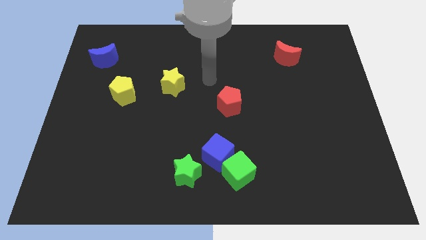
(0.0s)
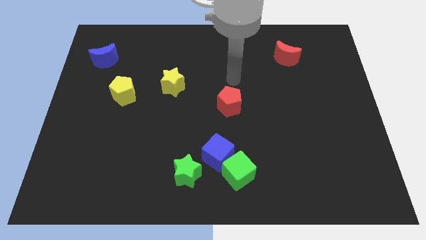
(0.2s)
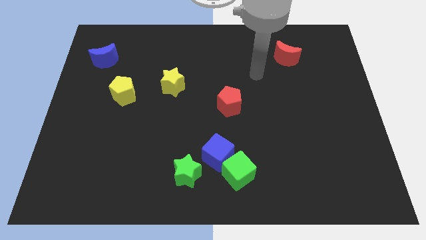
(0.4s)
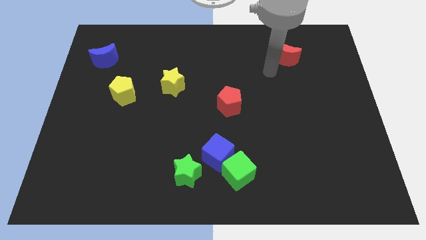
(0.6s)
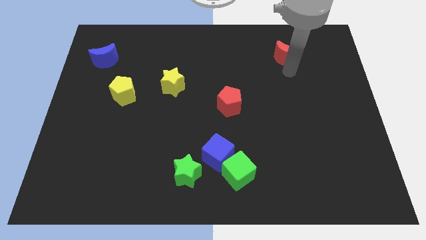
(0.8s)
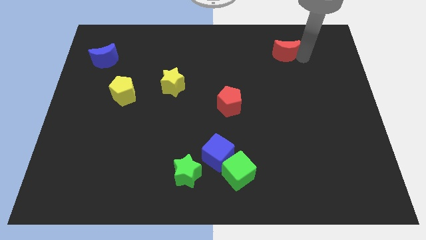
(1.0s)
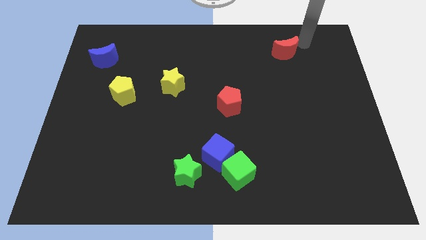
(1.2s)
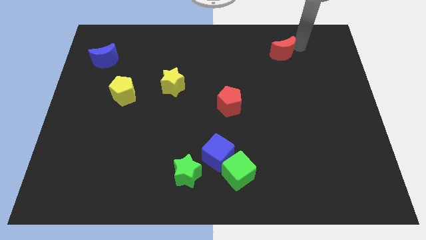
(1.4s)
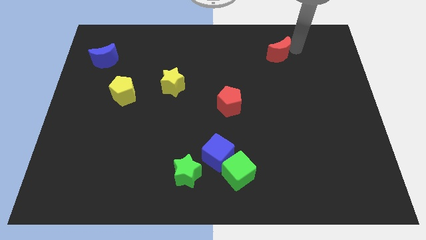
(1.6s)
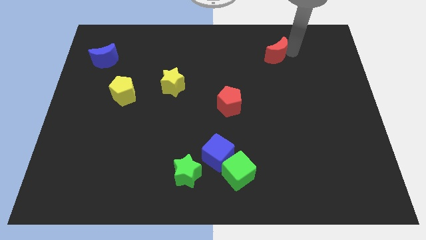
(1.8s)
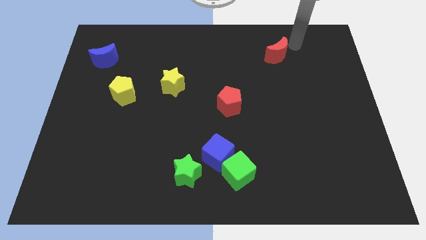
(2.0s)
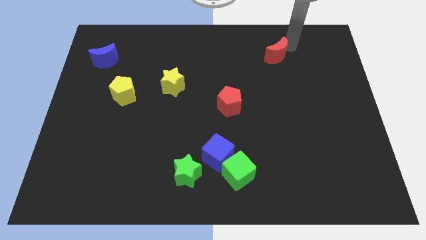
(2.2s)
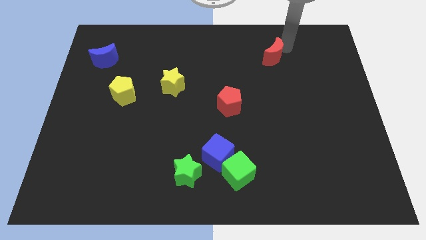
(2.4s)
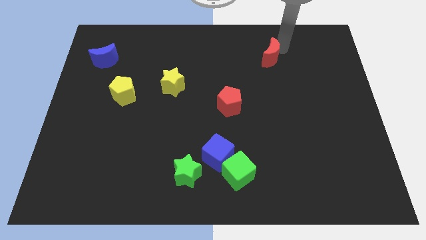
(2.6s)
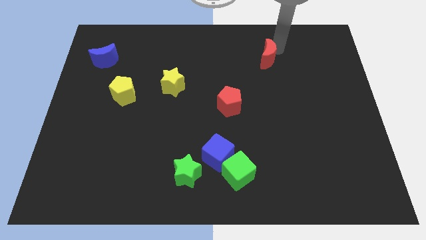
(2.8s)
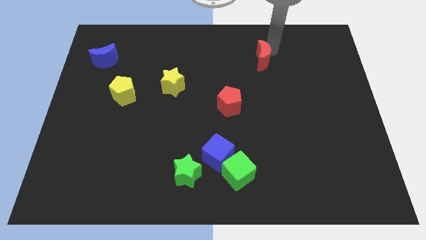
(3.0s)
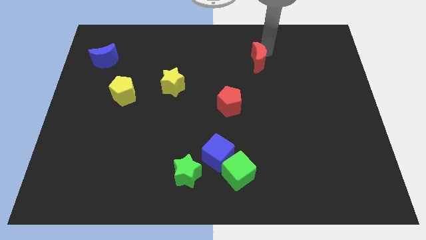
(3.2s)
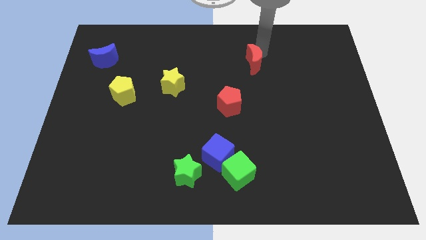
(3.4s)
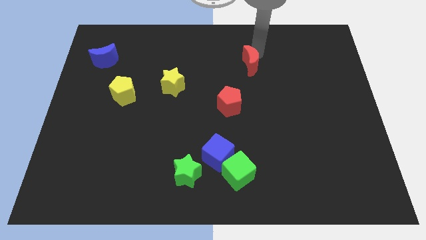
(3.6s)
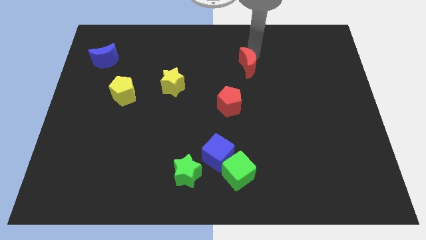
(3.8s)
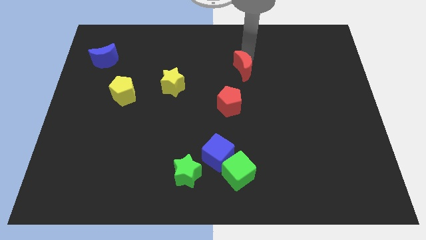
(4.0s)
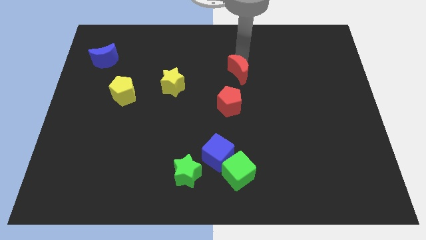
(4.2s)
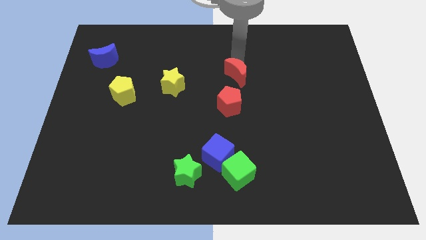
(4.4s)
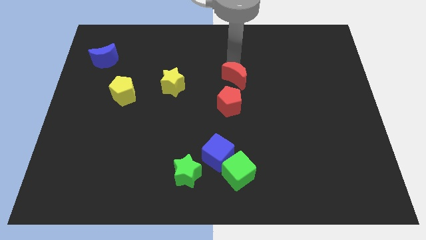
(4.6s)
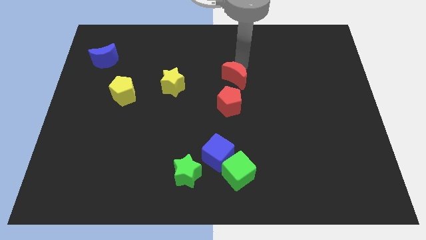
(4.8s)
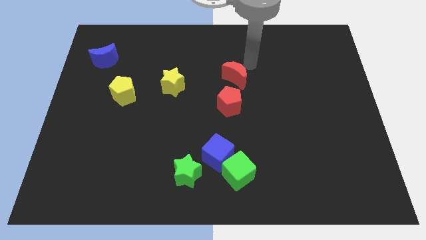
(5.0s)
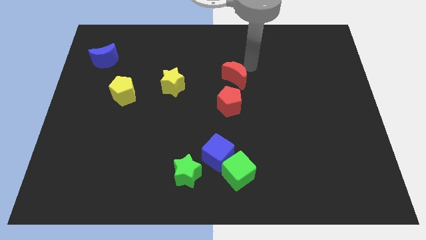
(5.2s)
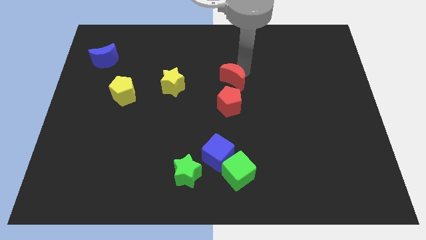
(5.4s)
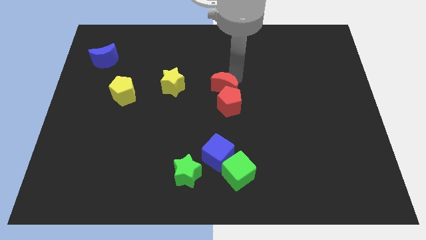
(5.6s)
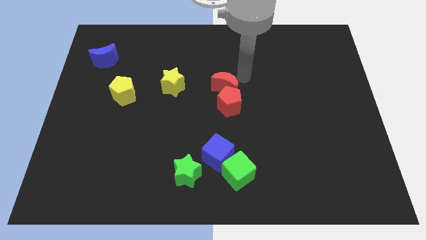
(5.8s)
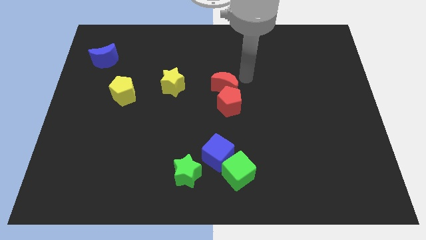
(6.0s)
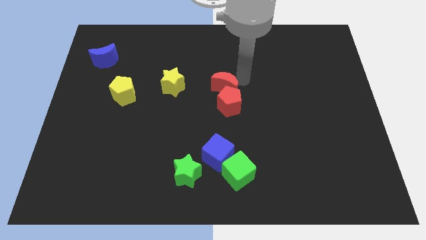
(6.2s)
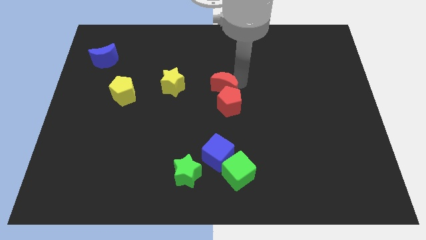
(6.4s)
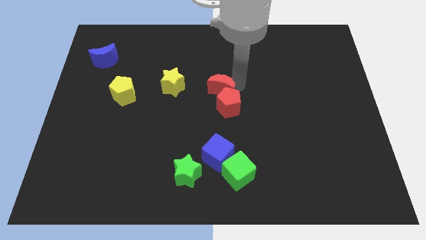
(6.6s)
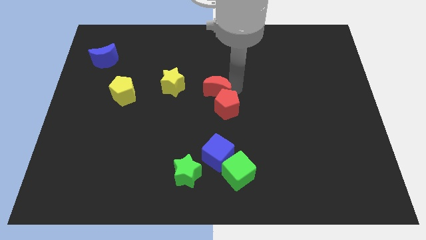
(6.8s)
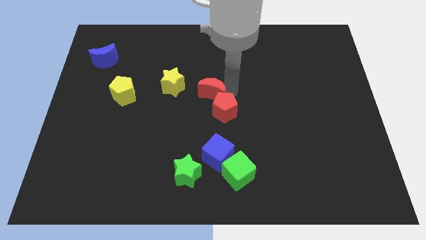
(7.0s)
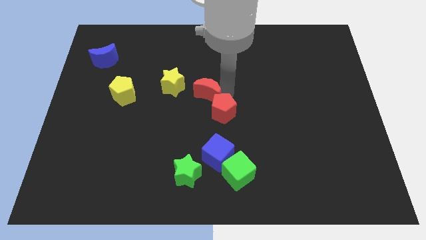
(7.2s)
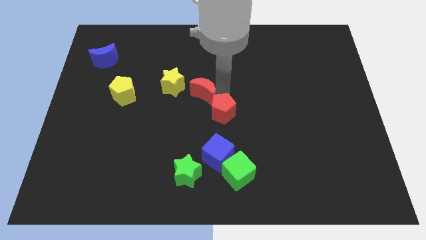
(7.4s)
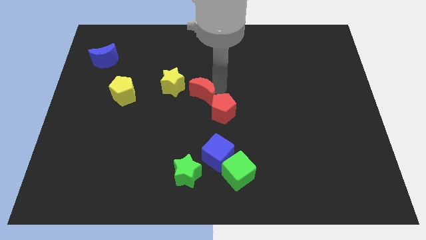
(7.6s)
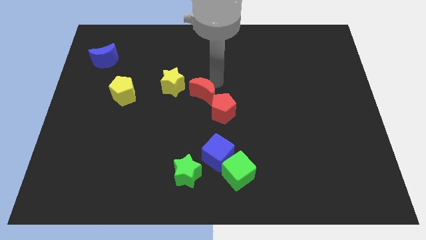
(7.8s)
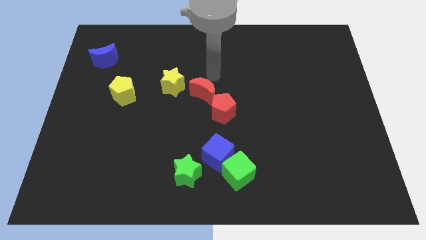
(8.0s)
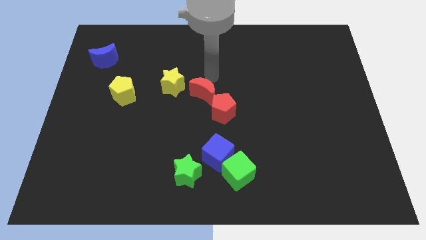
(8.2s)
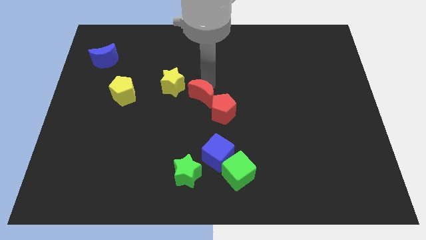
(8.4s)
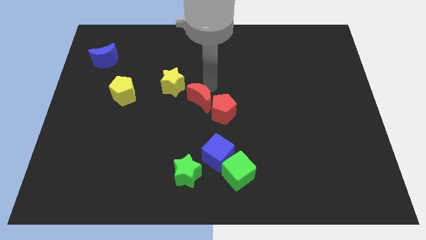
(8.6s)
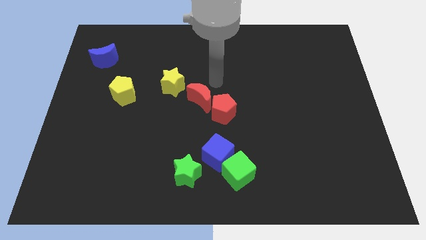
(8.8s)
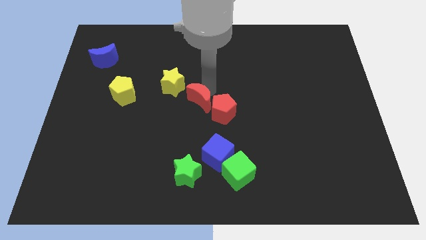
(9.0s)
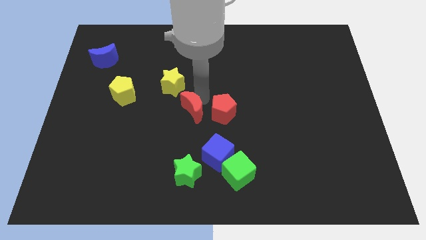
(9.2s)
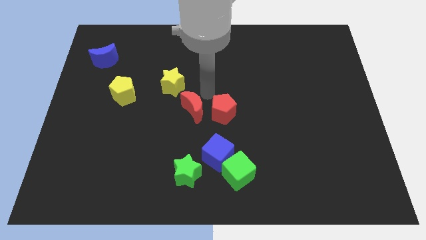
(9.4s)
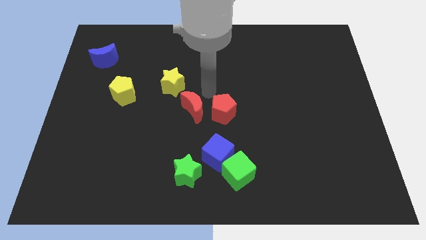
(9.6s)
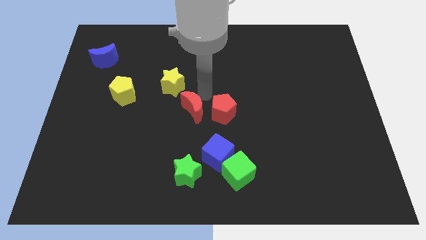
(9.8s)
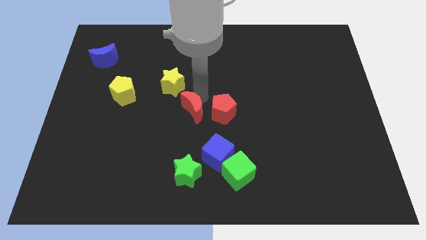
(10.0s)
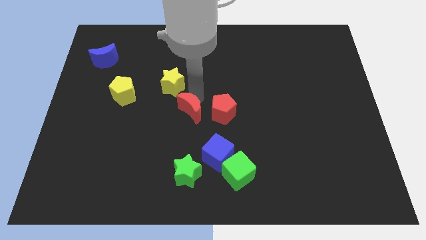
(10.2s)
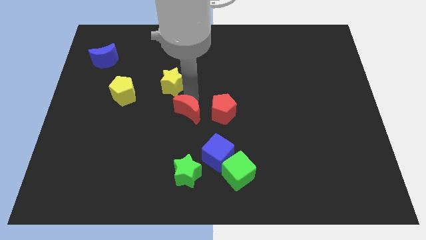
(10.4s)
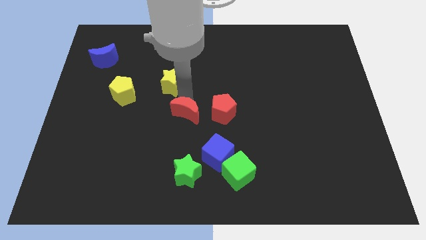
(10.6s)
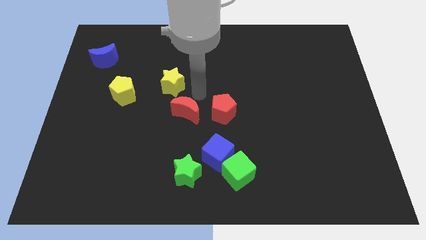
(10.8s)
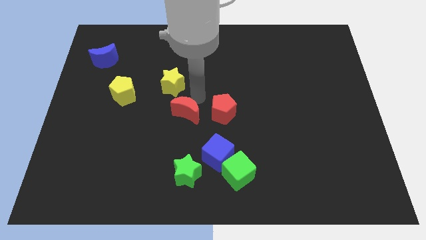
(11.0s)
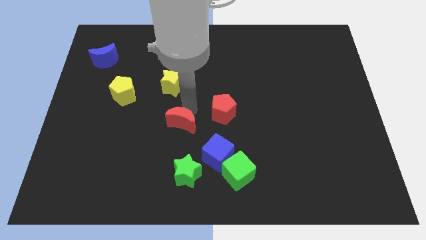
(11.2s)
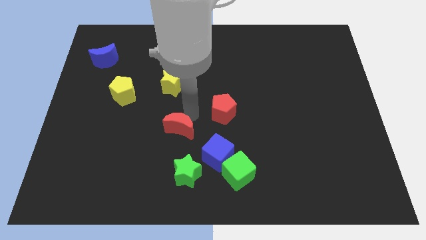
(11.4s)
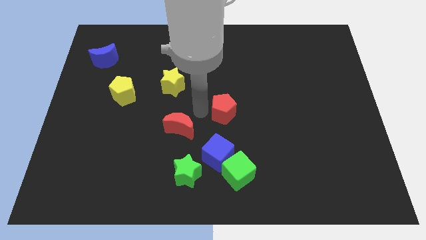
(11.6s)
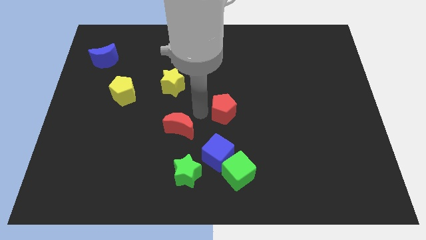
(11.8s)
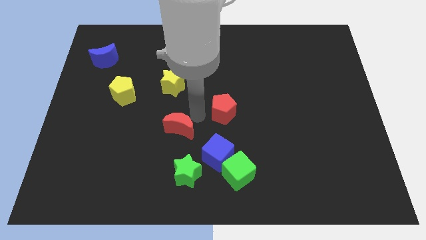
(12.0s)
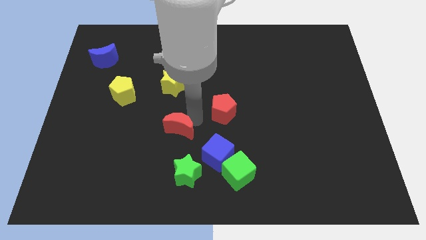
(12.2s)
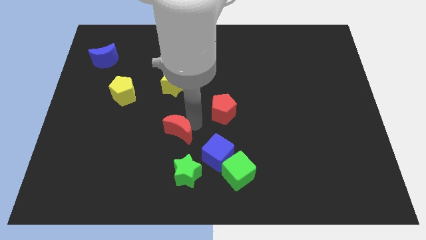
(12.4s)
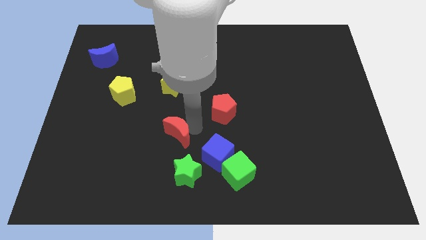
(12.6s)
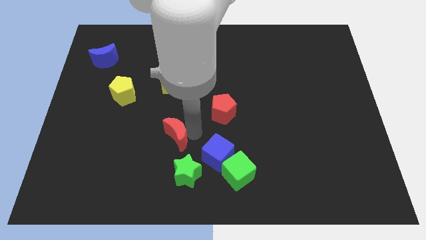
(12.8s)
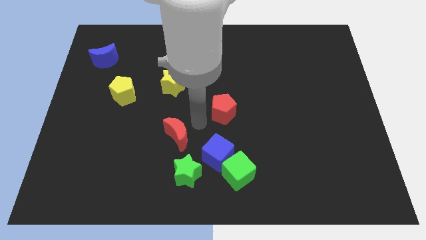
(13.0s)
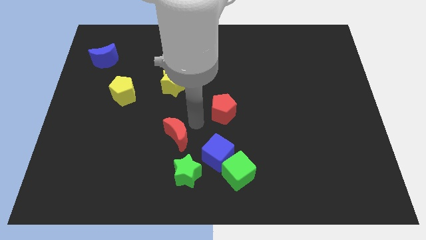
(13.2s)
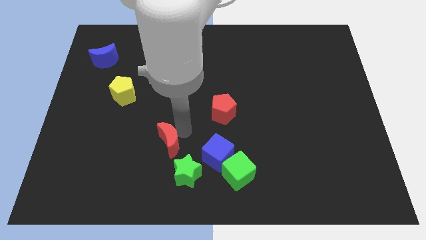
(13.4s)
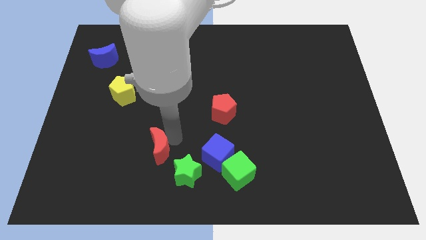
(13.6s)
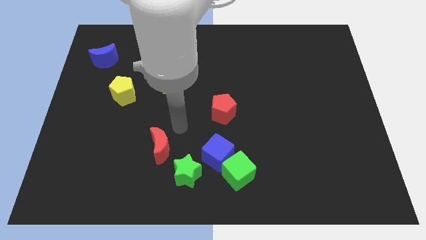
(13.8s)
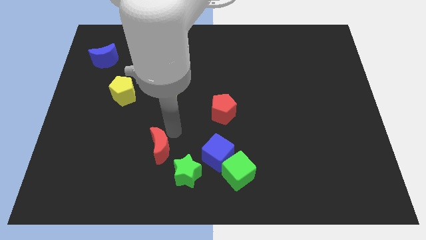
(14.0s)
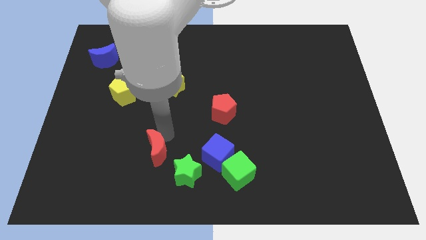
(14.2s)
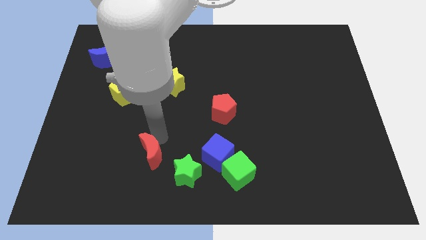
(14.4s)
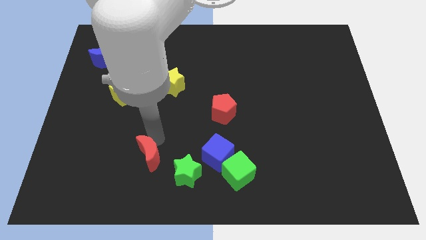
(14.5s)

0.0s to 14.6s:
move the red moon just left of the green star

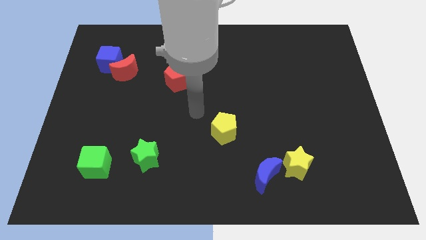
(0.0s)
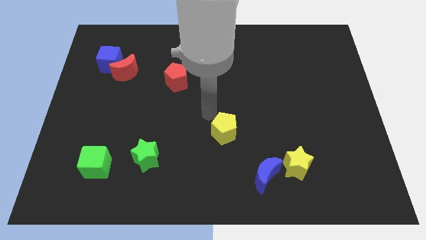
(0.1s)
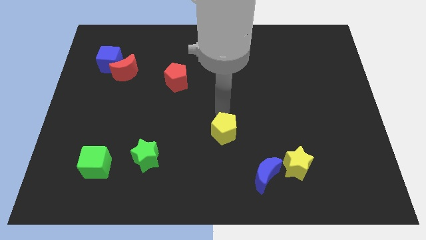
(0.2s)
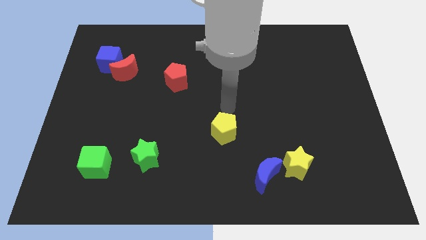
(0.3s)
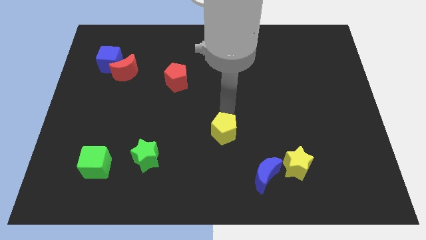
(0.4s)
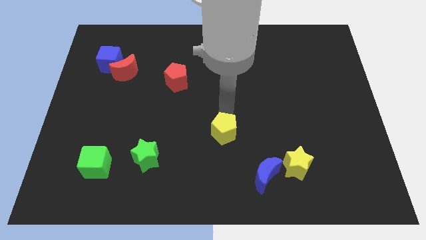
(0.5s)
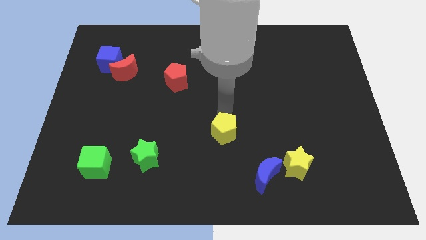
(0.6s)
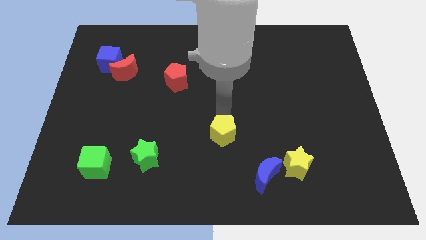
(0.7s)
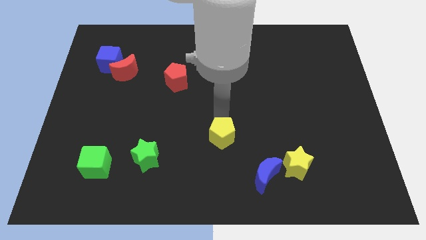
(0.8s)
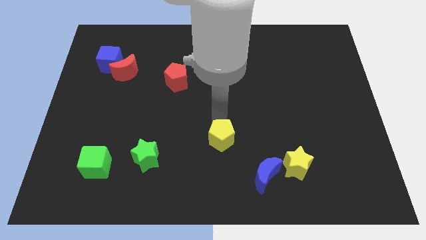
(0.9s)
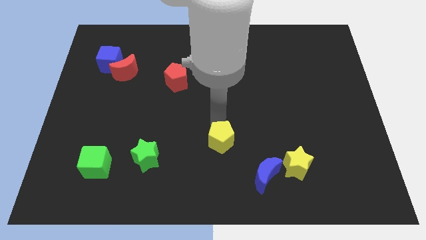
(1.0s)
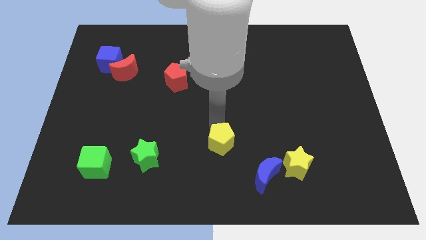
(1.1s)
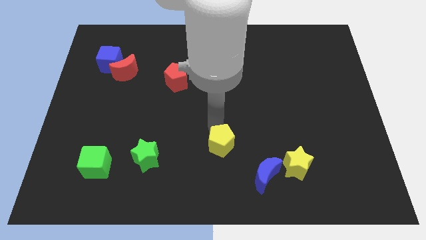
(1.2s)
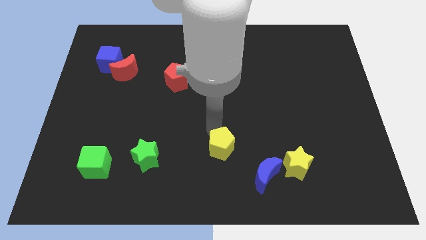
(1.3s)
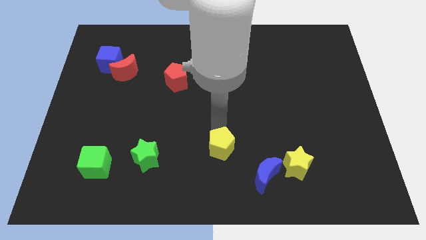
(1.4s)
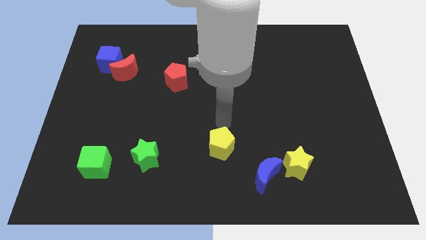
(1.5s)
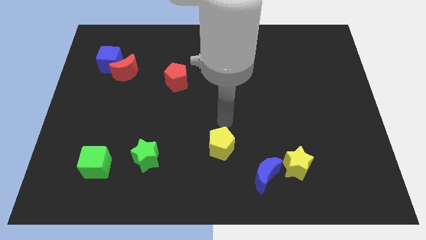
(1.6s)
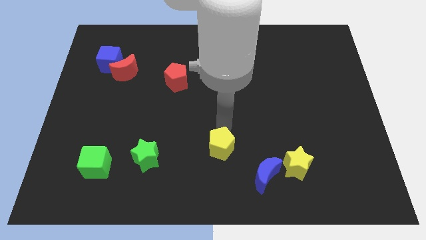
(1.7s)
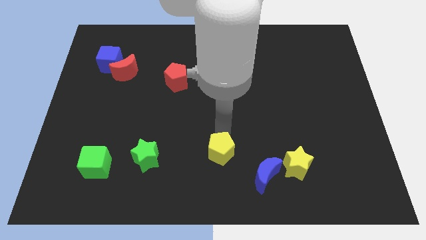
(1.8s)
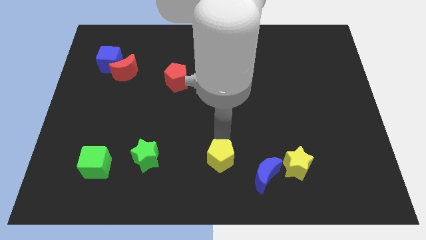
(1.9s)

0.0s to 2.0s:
move the yellow pentagon just left of the blue moon
